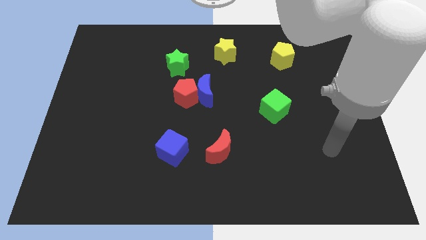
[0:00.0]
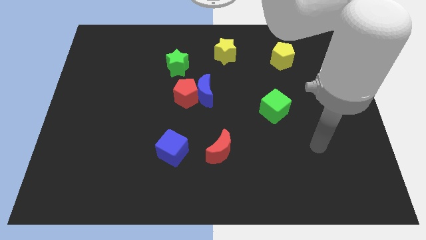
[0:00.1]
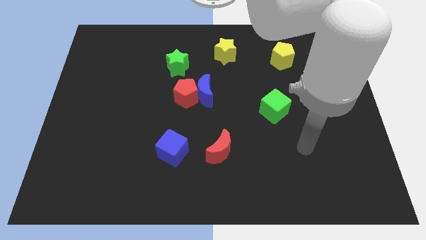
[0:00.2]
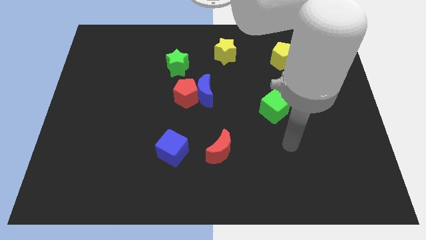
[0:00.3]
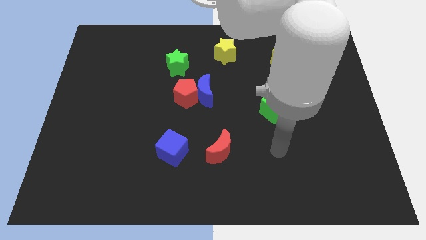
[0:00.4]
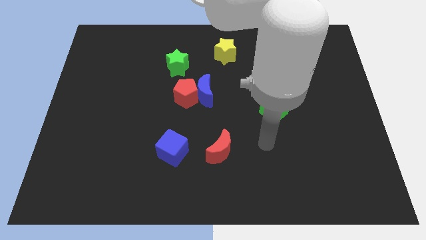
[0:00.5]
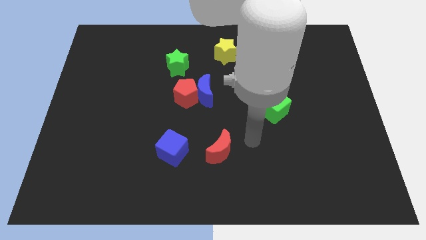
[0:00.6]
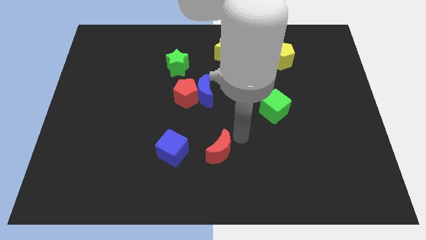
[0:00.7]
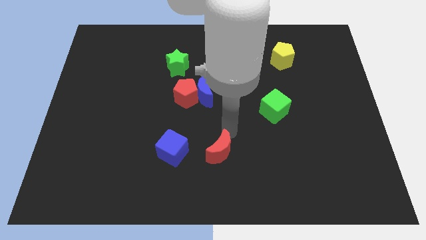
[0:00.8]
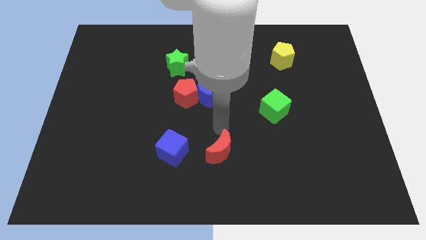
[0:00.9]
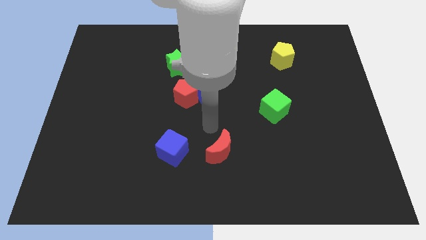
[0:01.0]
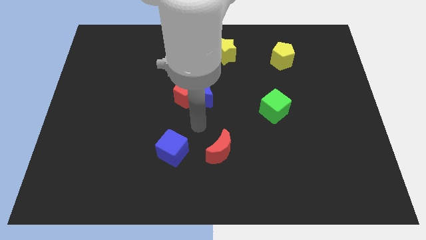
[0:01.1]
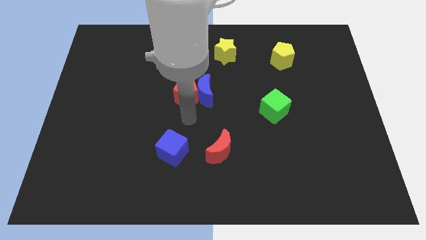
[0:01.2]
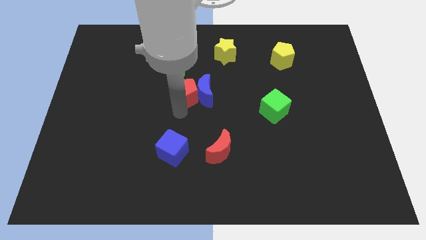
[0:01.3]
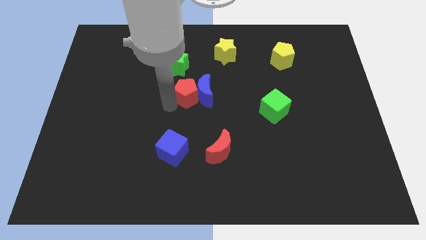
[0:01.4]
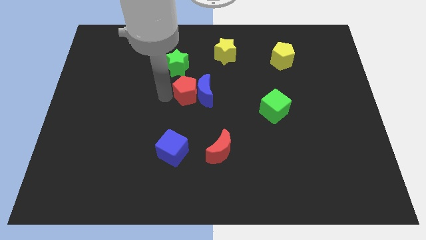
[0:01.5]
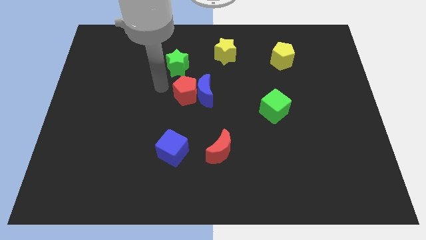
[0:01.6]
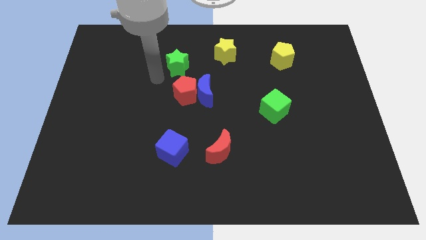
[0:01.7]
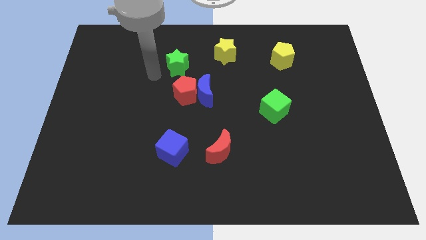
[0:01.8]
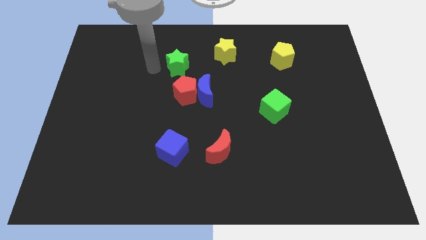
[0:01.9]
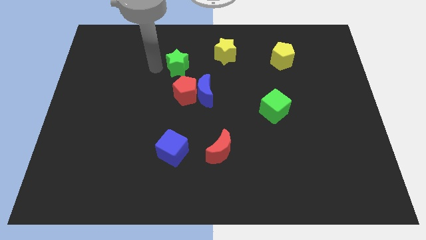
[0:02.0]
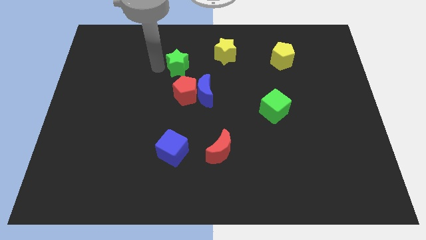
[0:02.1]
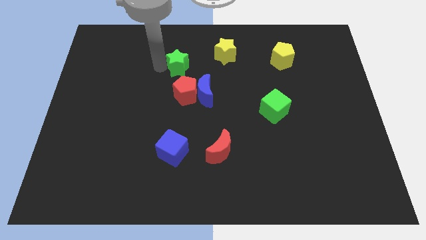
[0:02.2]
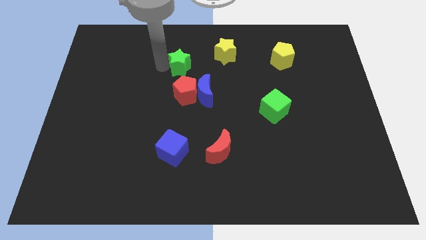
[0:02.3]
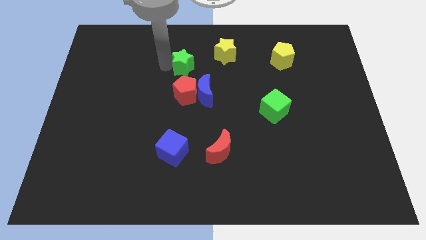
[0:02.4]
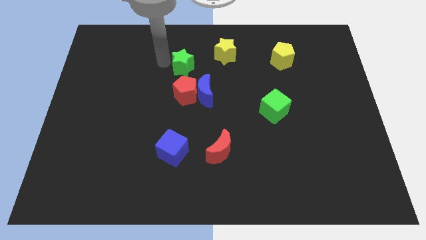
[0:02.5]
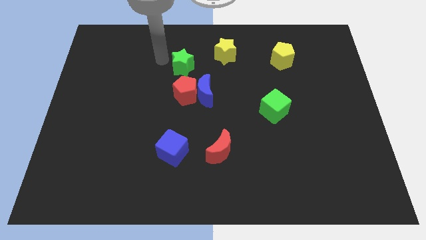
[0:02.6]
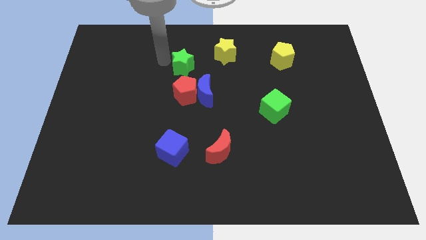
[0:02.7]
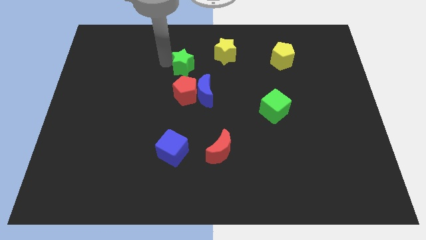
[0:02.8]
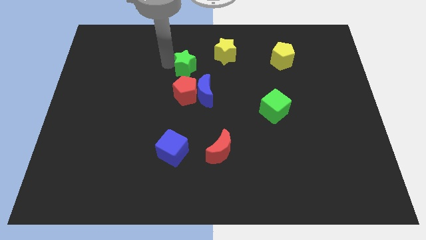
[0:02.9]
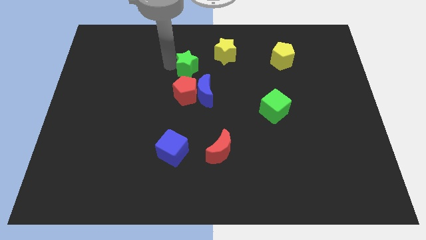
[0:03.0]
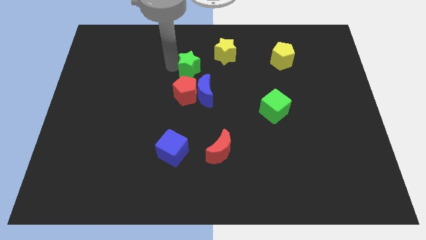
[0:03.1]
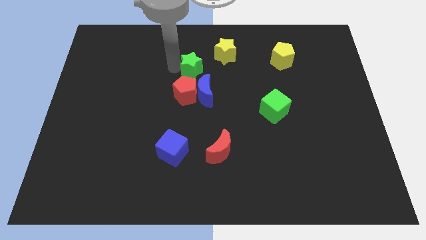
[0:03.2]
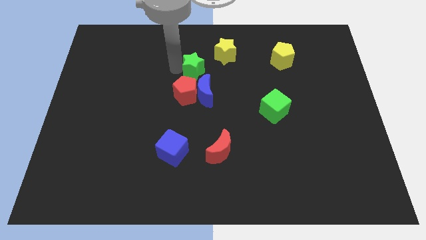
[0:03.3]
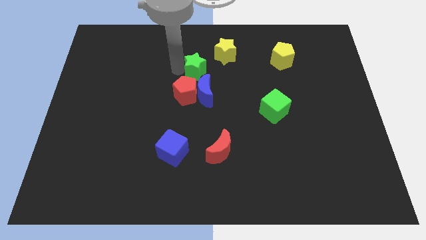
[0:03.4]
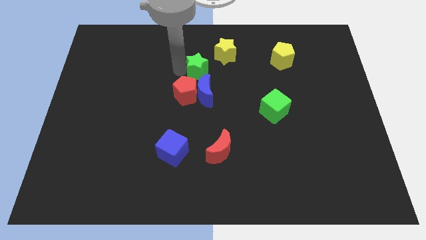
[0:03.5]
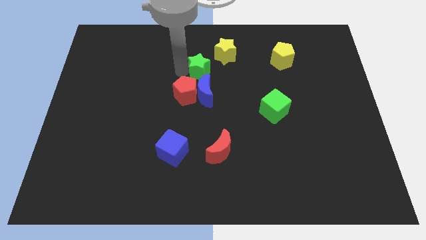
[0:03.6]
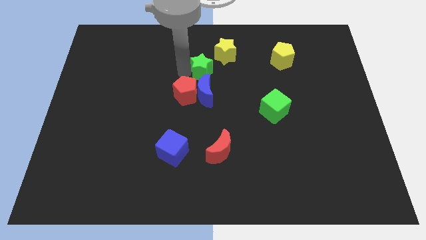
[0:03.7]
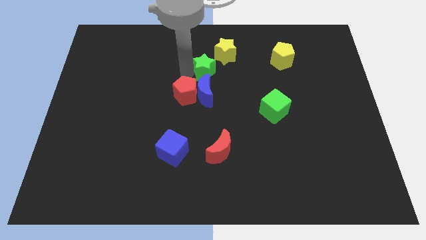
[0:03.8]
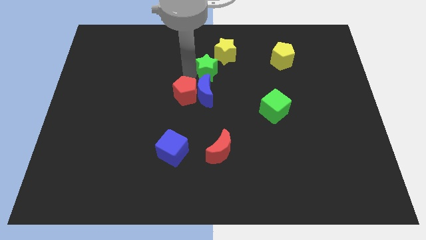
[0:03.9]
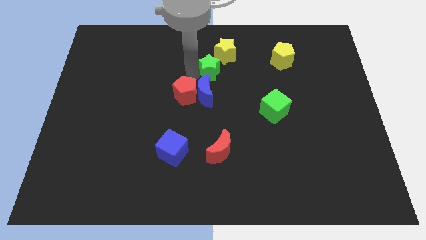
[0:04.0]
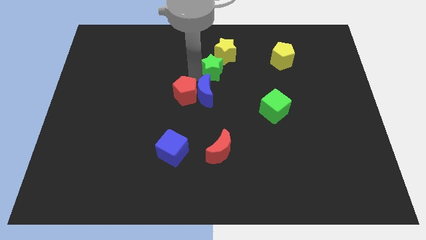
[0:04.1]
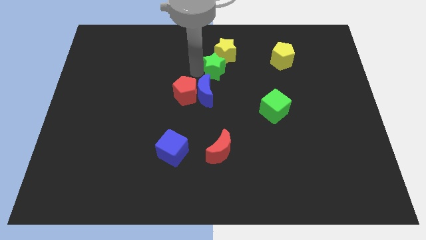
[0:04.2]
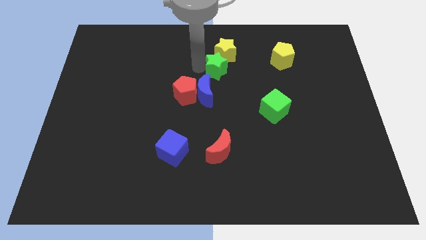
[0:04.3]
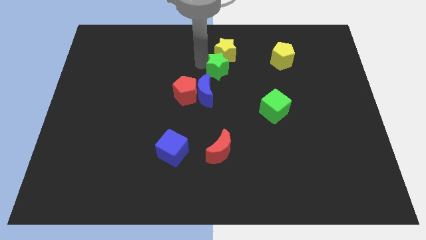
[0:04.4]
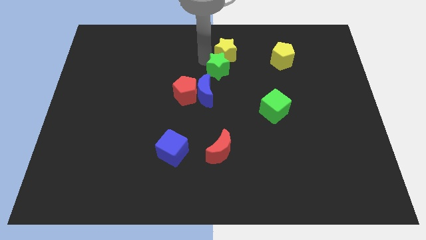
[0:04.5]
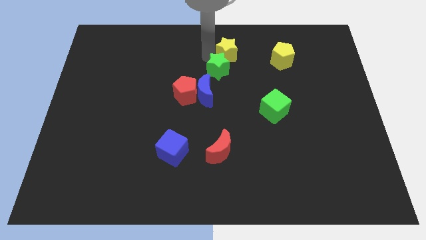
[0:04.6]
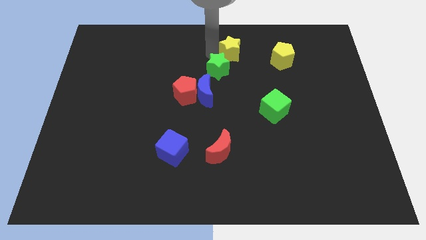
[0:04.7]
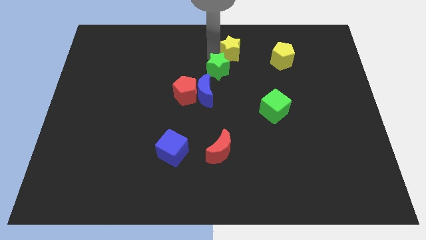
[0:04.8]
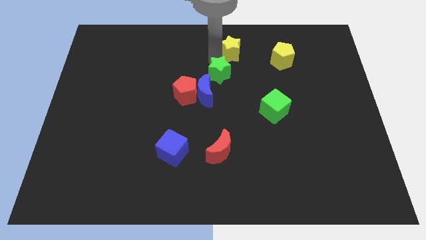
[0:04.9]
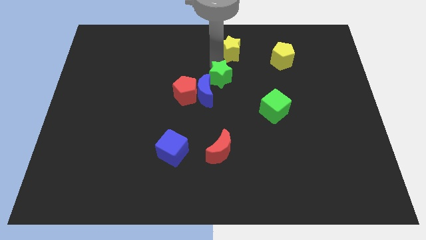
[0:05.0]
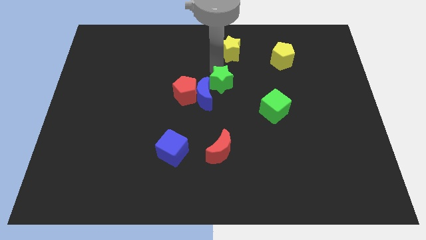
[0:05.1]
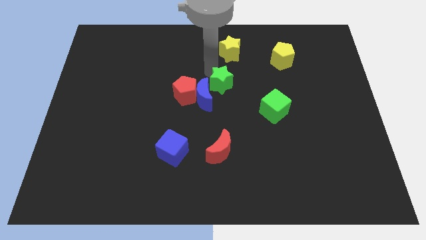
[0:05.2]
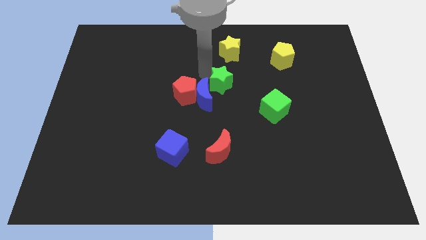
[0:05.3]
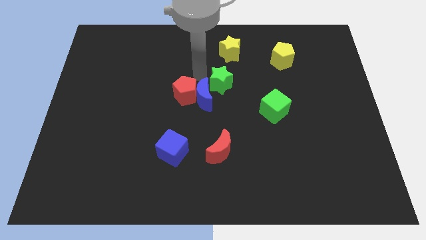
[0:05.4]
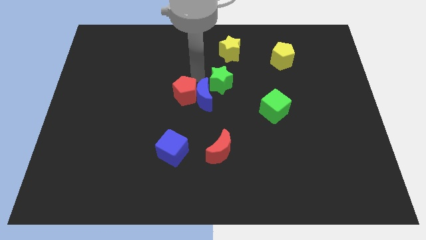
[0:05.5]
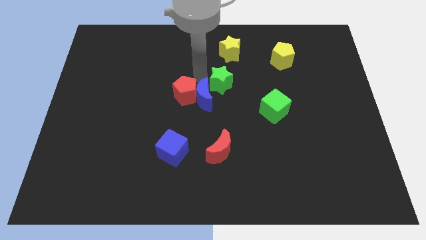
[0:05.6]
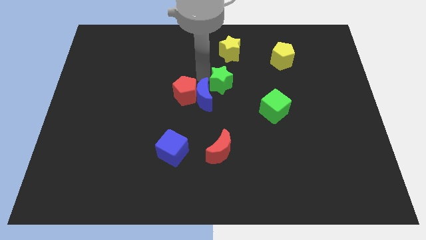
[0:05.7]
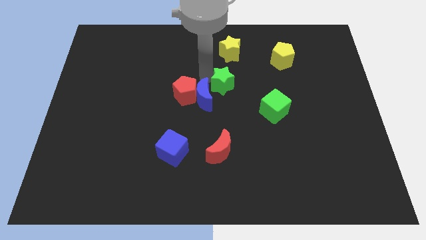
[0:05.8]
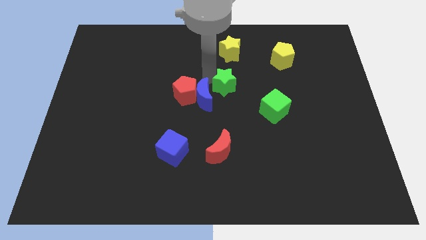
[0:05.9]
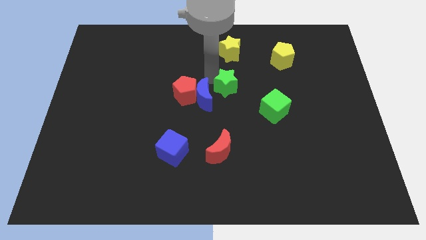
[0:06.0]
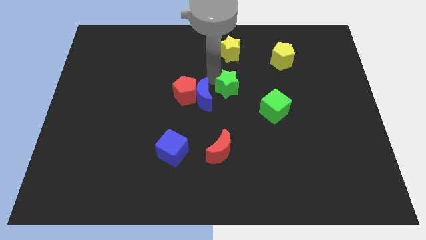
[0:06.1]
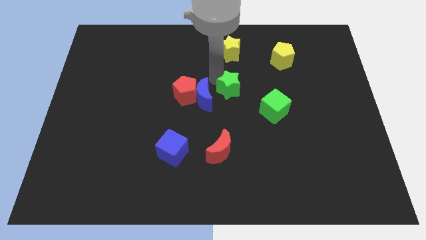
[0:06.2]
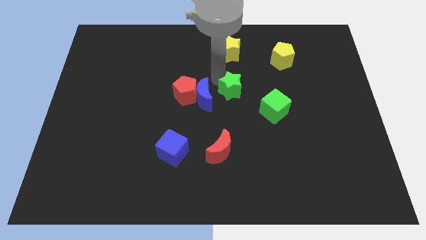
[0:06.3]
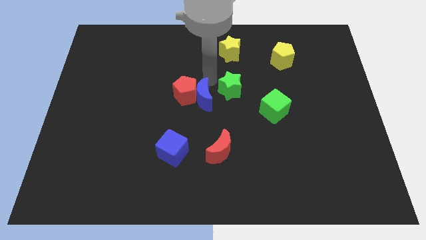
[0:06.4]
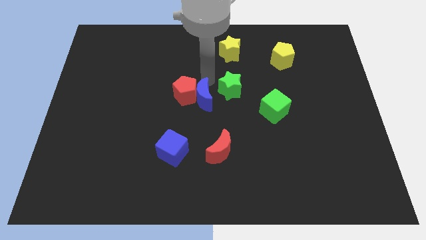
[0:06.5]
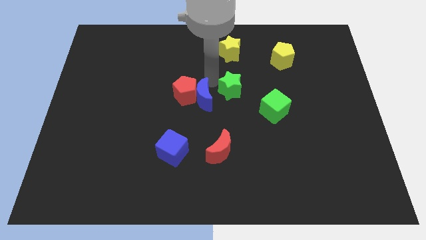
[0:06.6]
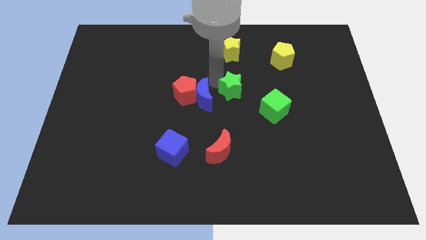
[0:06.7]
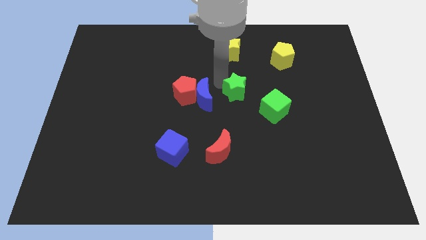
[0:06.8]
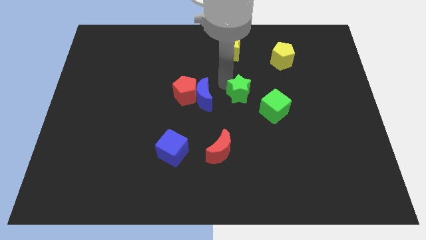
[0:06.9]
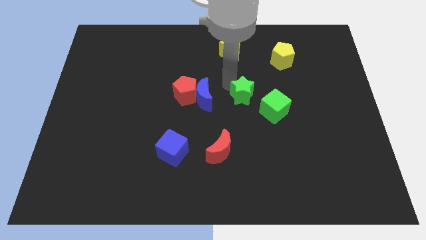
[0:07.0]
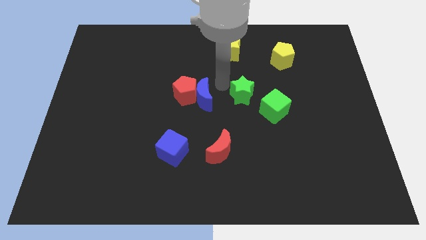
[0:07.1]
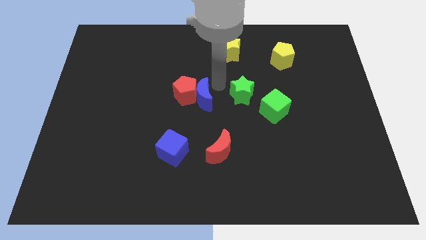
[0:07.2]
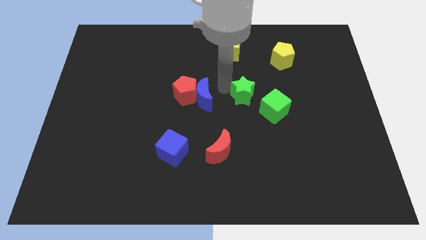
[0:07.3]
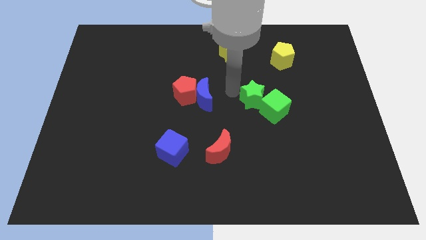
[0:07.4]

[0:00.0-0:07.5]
put the green star towards the green cube

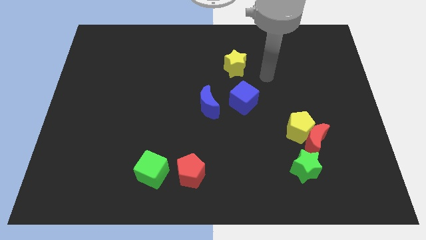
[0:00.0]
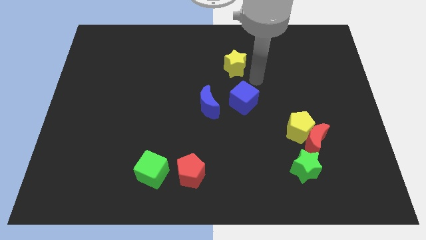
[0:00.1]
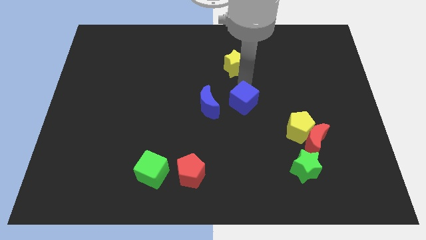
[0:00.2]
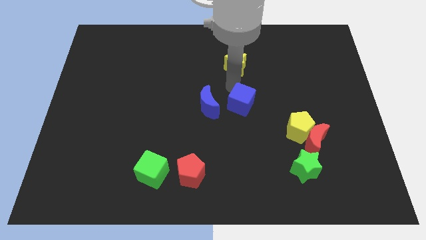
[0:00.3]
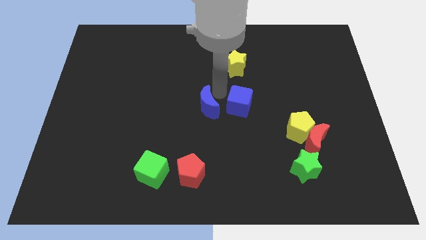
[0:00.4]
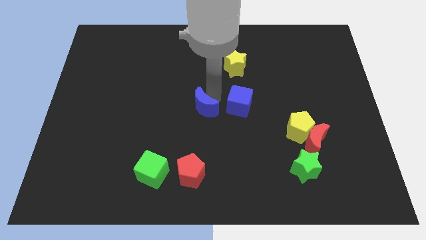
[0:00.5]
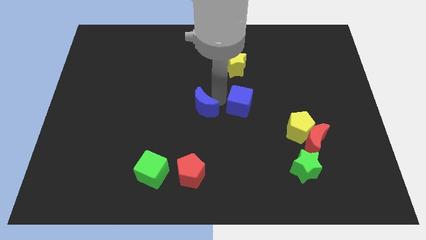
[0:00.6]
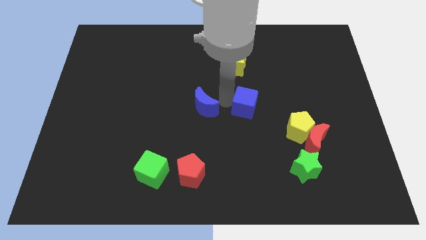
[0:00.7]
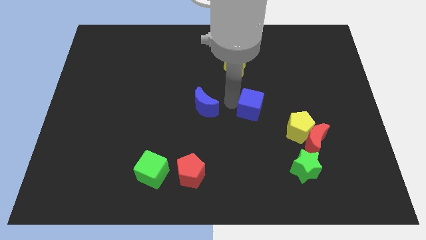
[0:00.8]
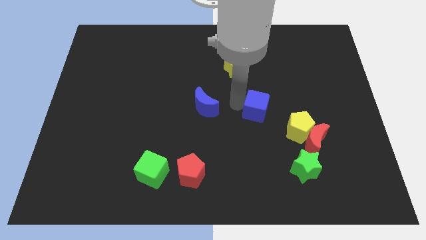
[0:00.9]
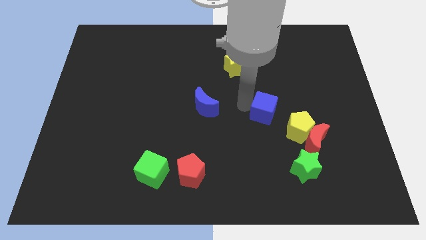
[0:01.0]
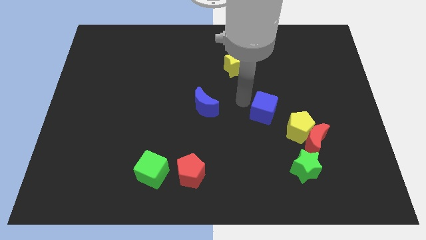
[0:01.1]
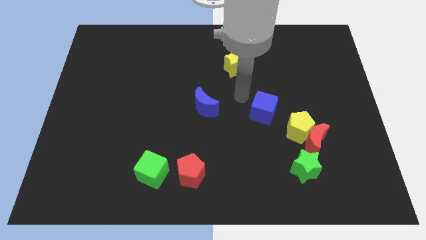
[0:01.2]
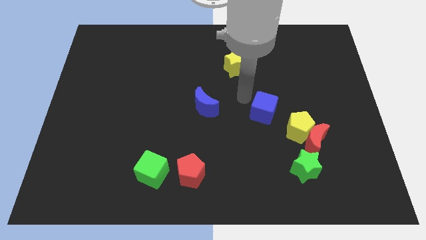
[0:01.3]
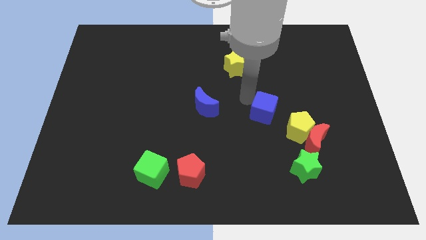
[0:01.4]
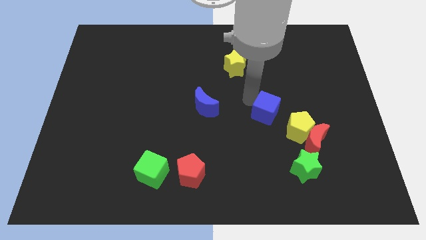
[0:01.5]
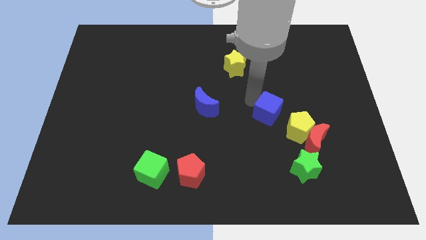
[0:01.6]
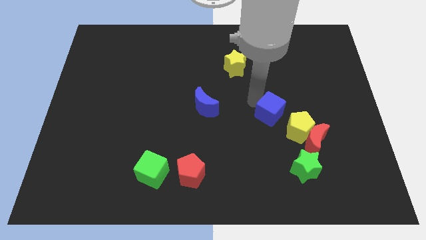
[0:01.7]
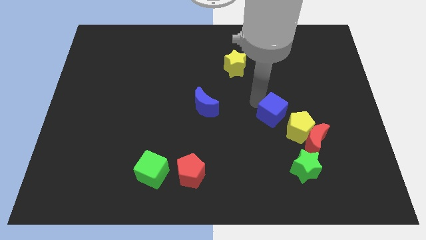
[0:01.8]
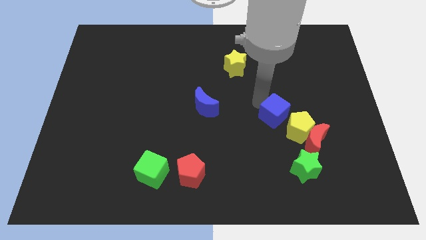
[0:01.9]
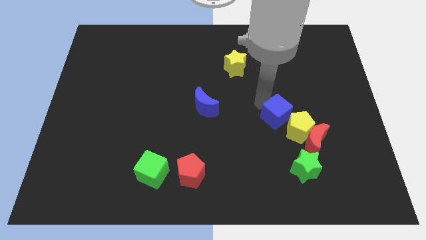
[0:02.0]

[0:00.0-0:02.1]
push the blue cube to the yellow pentagon
